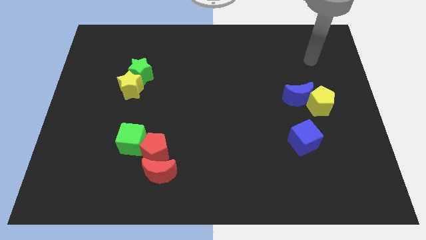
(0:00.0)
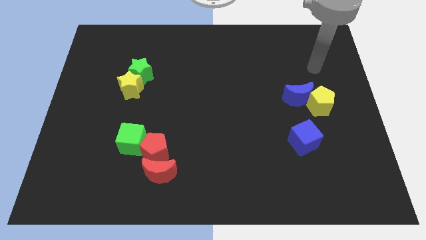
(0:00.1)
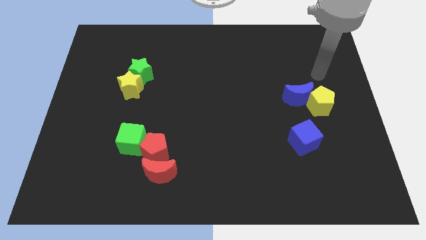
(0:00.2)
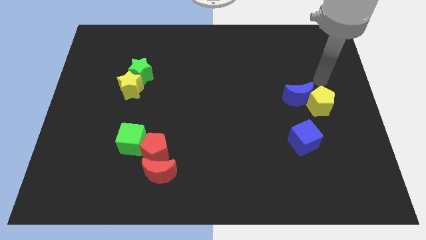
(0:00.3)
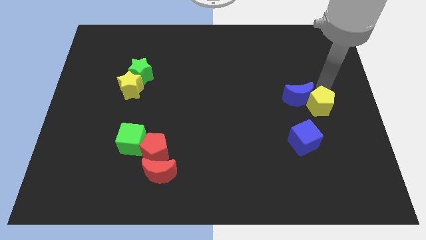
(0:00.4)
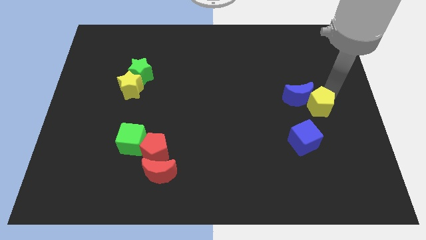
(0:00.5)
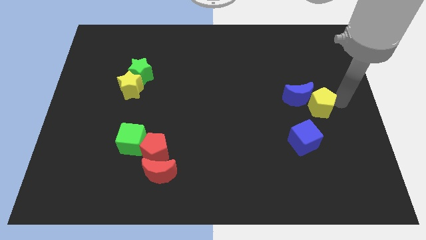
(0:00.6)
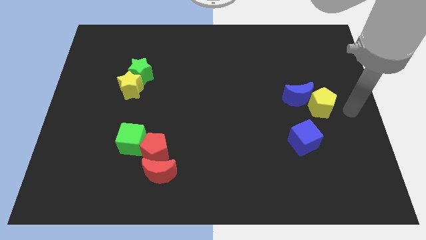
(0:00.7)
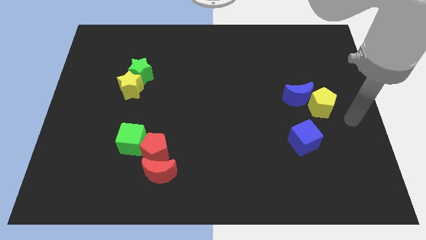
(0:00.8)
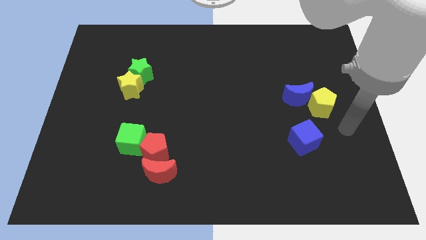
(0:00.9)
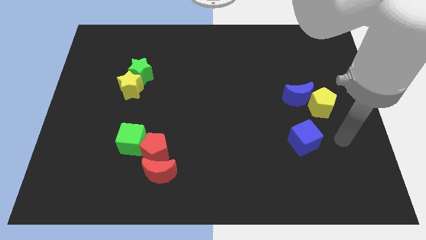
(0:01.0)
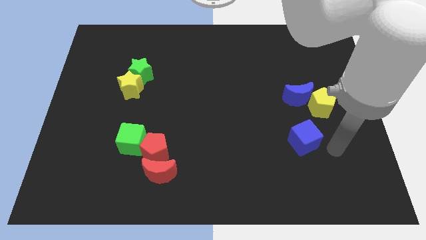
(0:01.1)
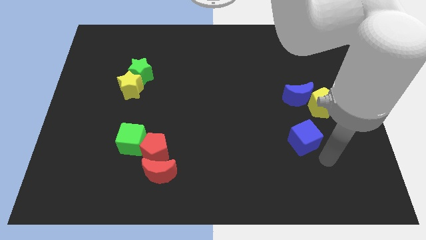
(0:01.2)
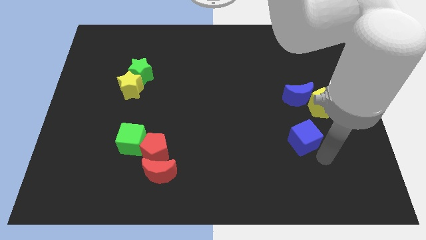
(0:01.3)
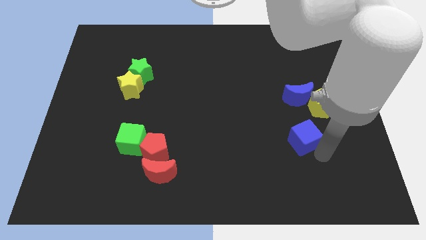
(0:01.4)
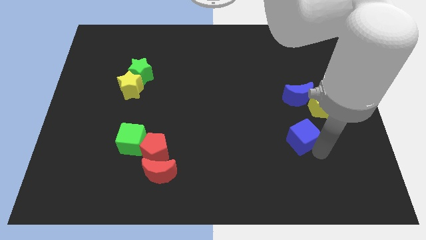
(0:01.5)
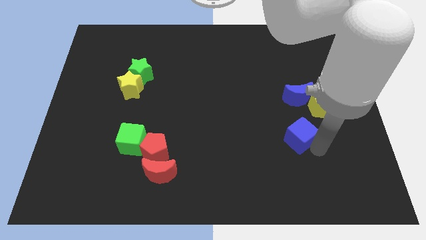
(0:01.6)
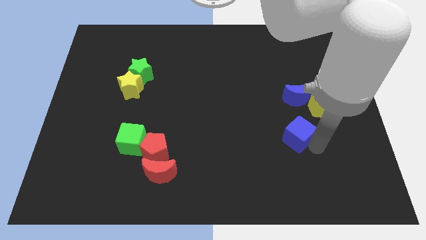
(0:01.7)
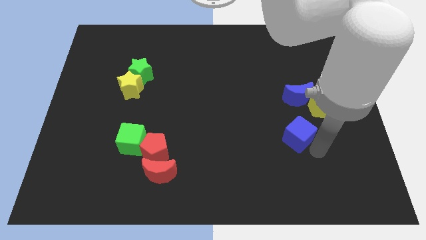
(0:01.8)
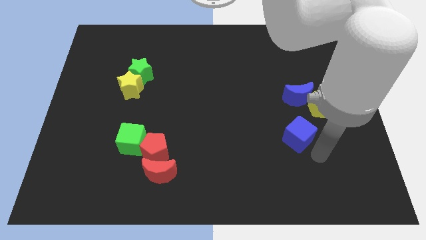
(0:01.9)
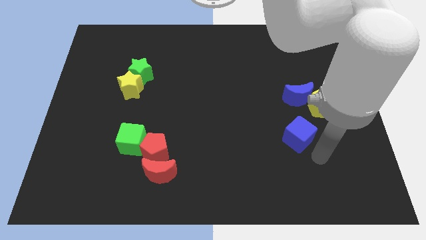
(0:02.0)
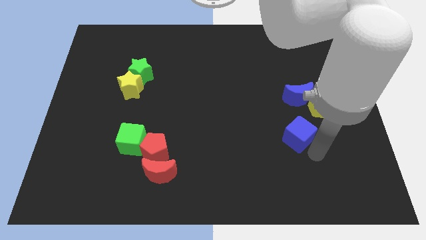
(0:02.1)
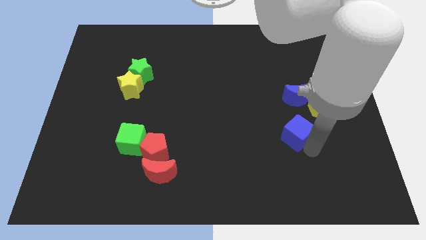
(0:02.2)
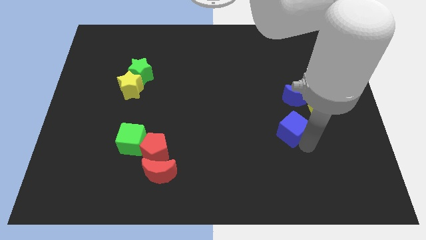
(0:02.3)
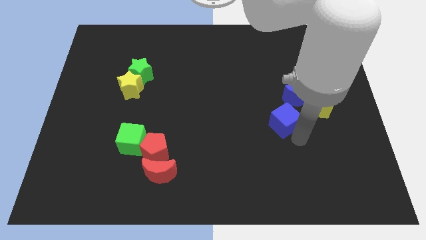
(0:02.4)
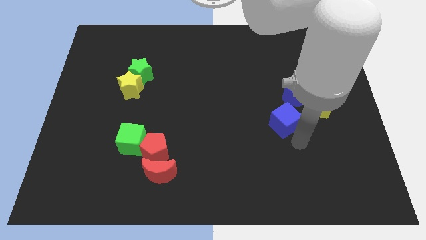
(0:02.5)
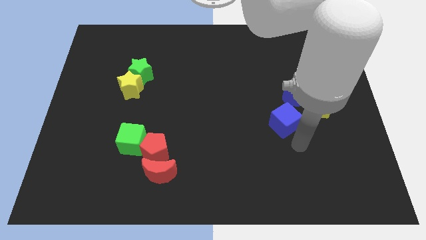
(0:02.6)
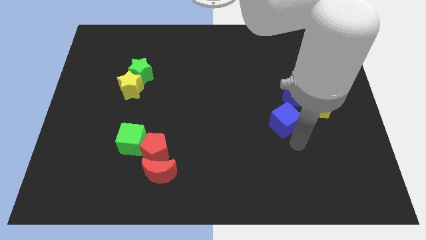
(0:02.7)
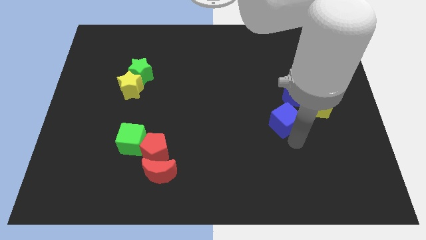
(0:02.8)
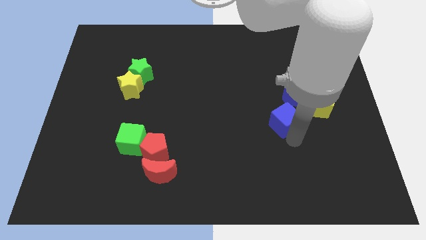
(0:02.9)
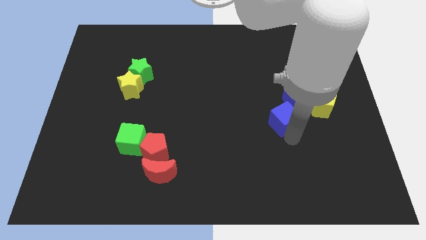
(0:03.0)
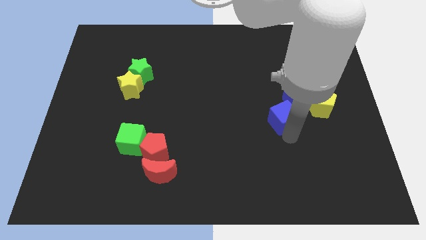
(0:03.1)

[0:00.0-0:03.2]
push the blue cube upwards and left slightly

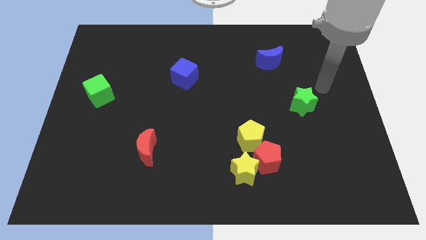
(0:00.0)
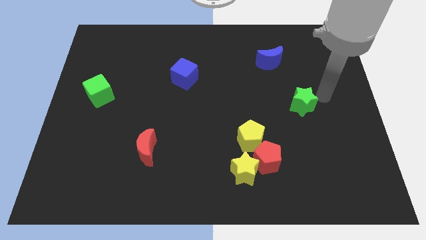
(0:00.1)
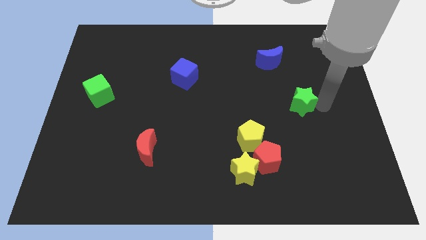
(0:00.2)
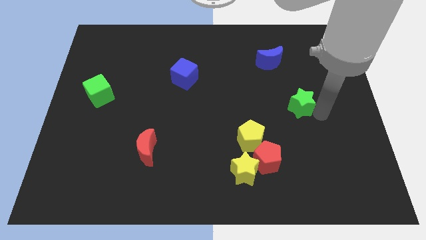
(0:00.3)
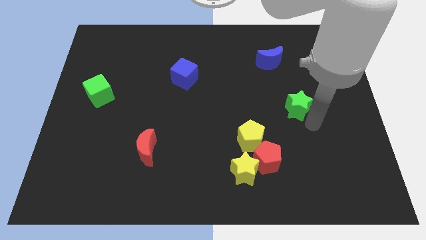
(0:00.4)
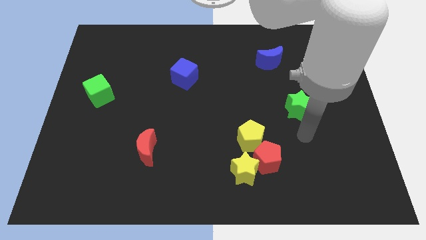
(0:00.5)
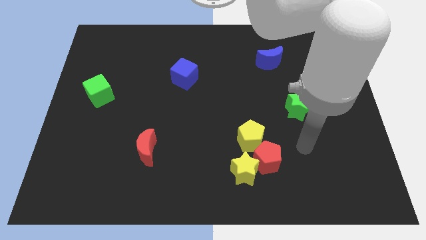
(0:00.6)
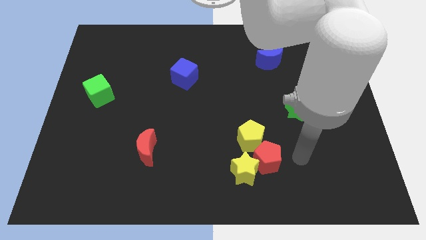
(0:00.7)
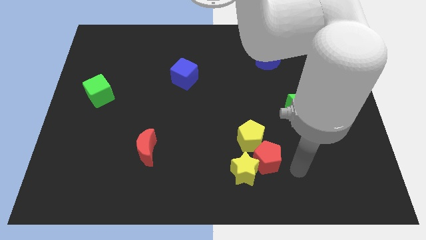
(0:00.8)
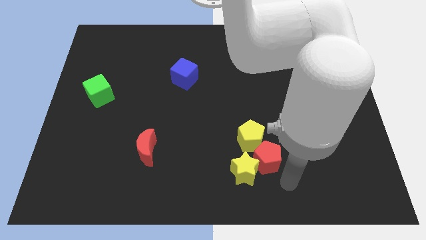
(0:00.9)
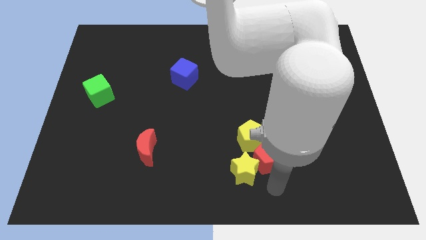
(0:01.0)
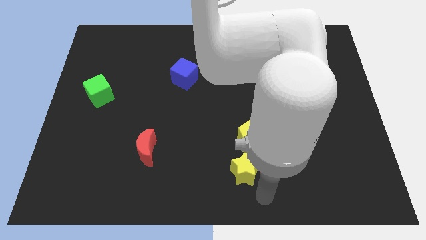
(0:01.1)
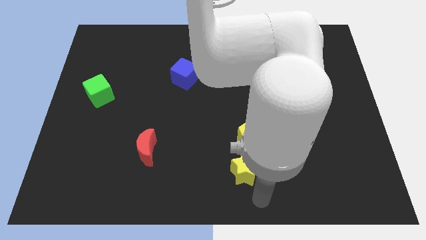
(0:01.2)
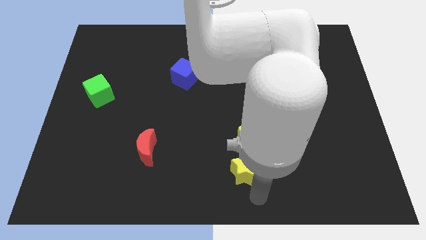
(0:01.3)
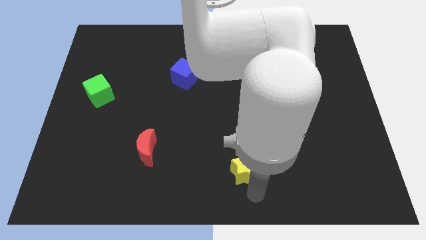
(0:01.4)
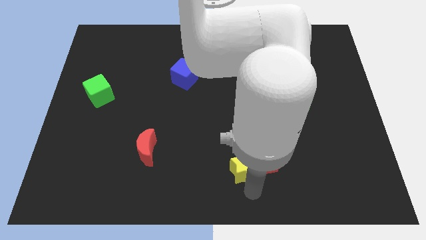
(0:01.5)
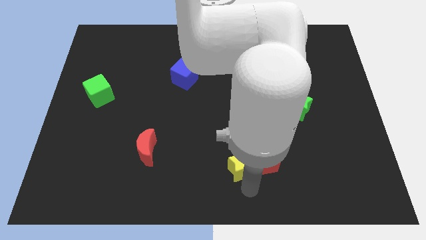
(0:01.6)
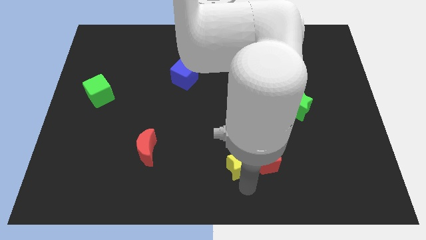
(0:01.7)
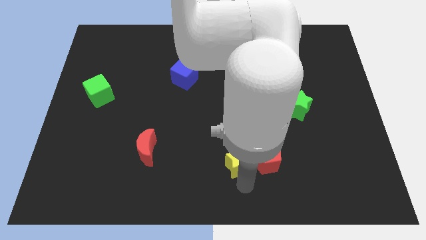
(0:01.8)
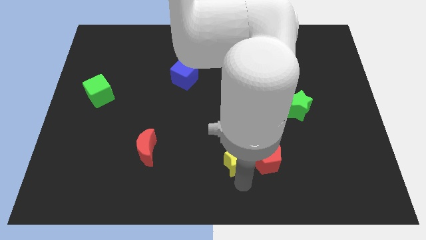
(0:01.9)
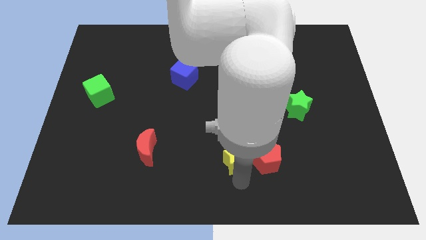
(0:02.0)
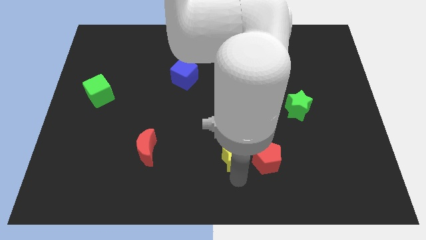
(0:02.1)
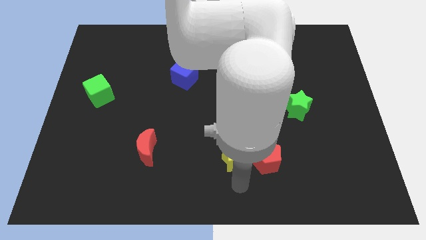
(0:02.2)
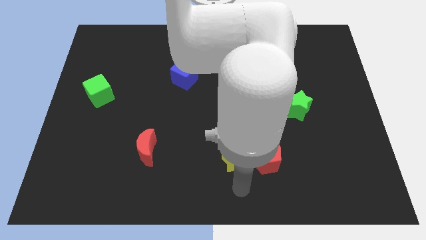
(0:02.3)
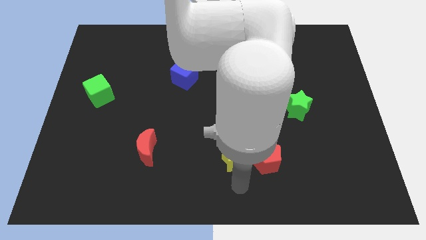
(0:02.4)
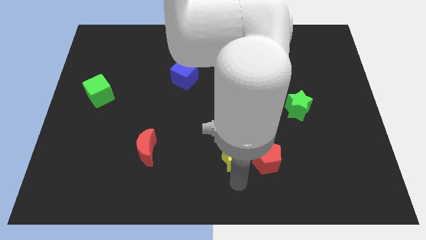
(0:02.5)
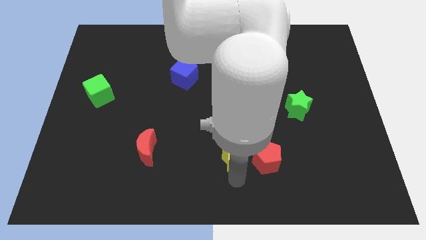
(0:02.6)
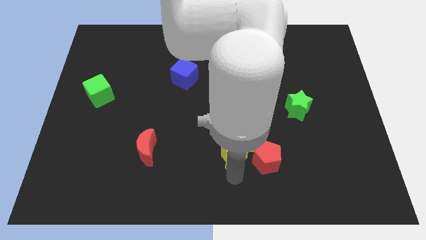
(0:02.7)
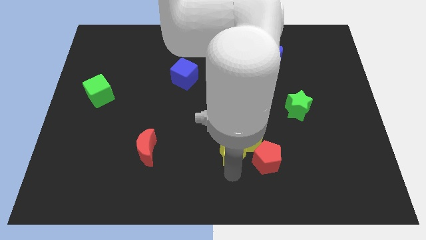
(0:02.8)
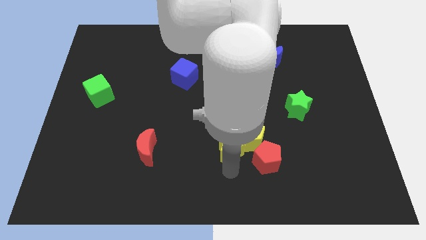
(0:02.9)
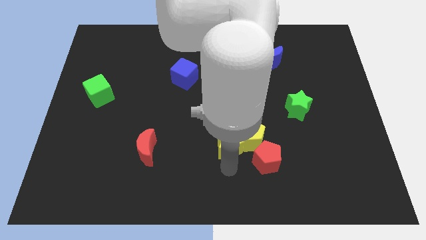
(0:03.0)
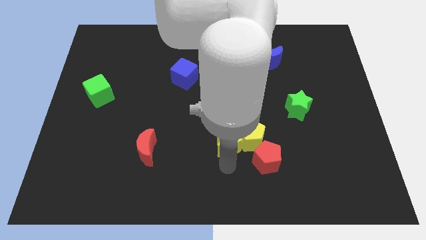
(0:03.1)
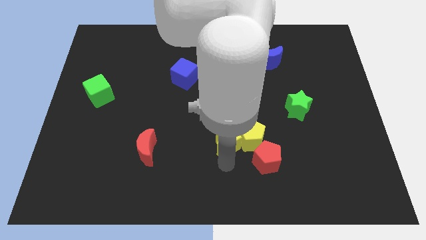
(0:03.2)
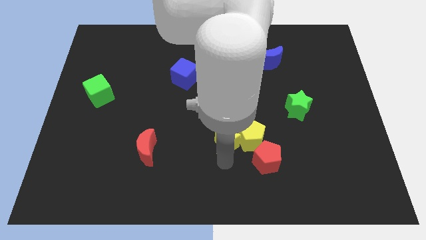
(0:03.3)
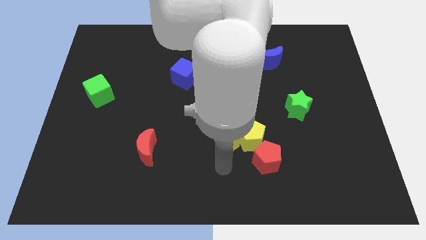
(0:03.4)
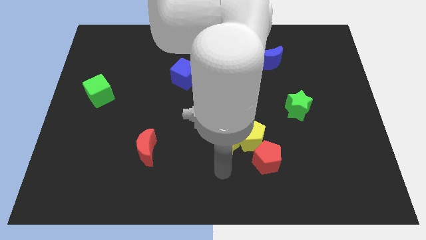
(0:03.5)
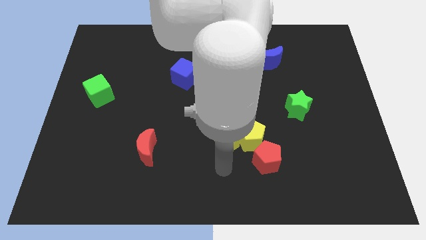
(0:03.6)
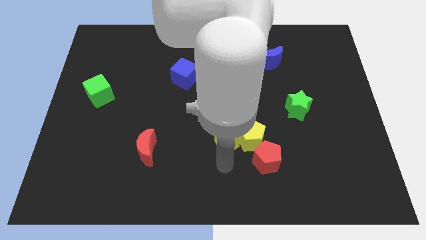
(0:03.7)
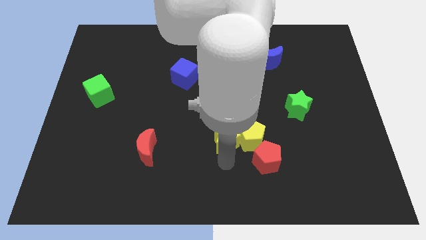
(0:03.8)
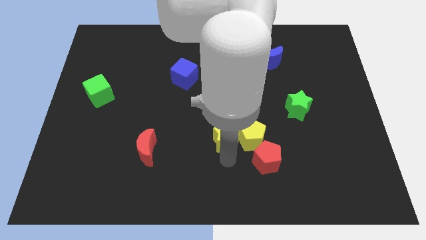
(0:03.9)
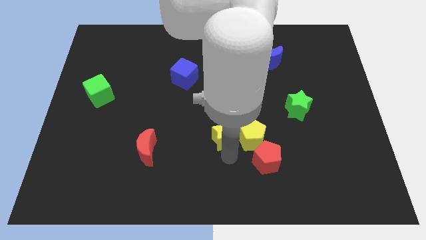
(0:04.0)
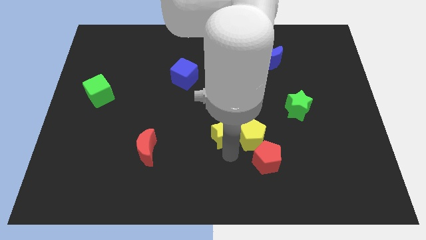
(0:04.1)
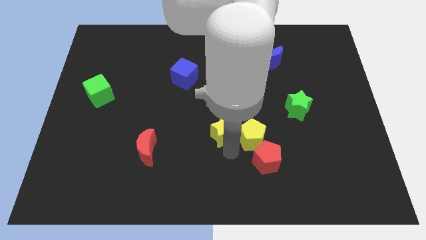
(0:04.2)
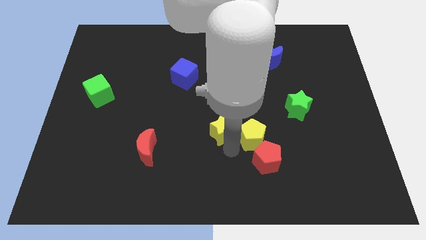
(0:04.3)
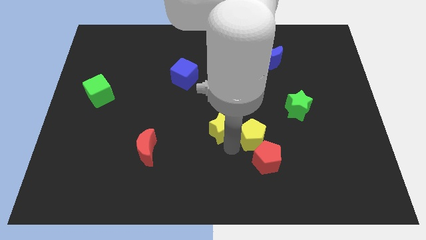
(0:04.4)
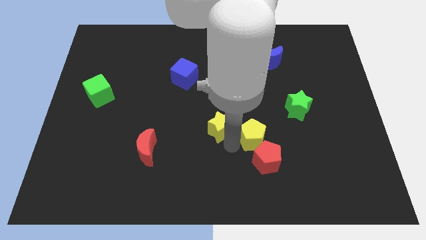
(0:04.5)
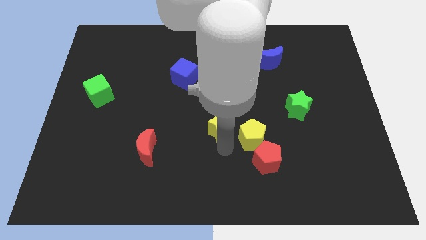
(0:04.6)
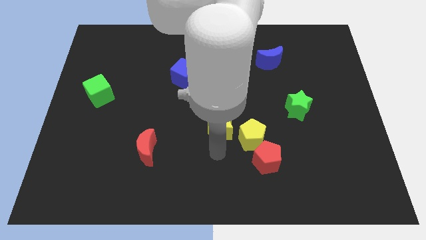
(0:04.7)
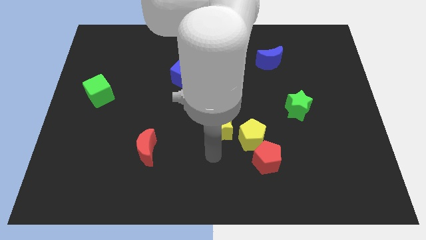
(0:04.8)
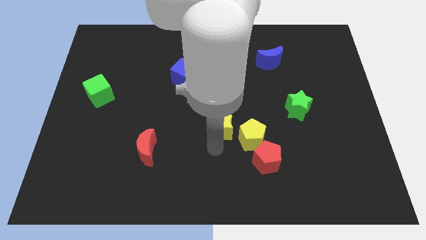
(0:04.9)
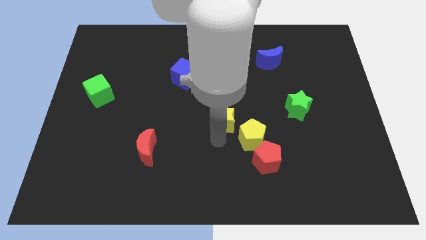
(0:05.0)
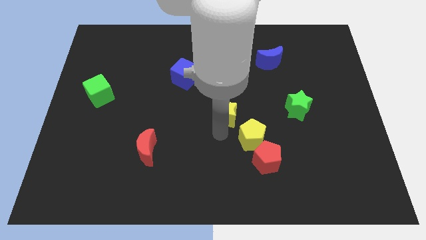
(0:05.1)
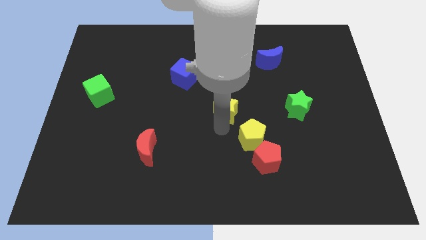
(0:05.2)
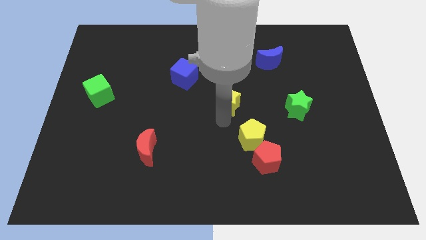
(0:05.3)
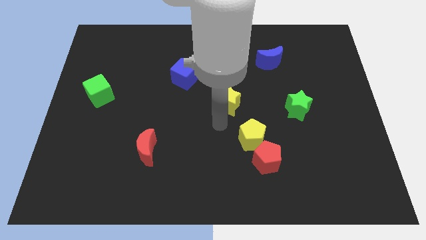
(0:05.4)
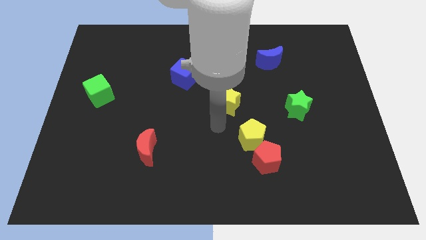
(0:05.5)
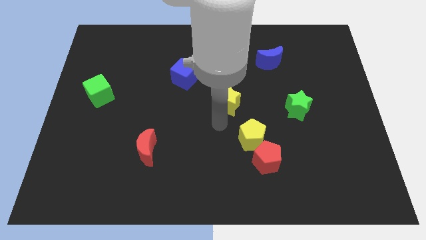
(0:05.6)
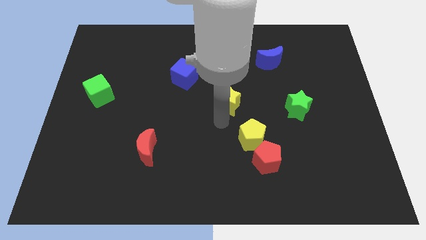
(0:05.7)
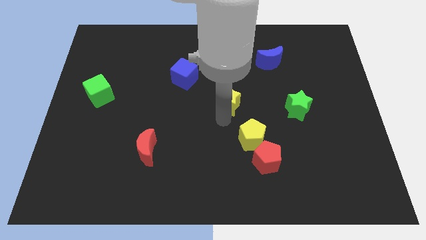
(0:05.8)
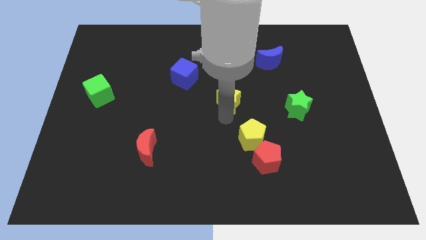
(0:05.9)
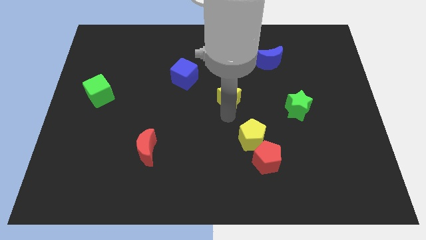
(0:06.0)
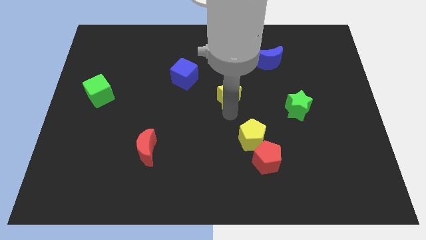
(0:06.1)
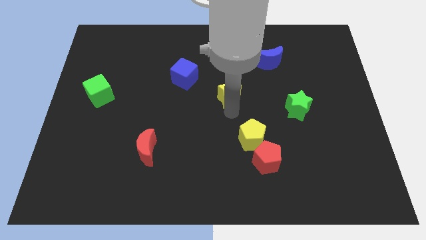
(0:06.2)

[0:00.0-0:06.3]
push the yellow star up
